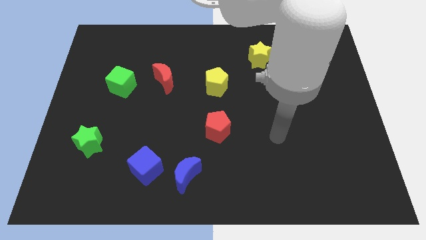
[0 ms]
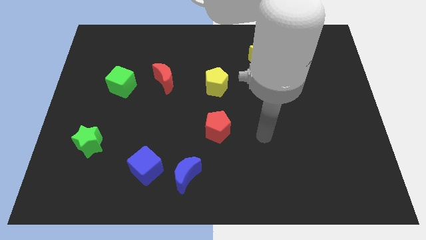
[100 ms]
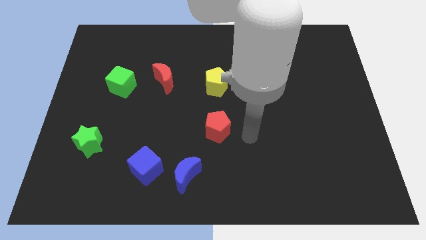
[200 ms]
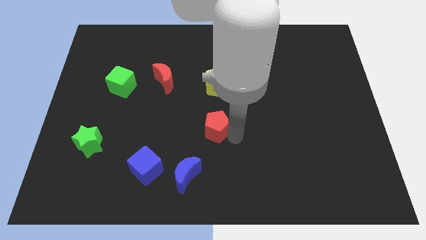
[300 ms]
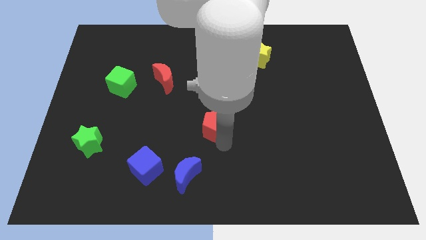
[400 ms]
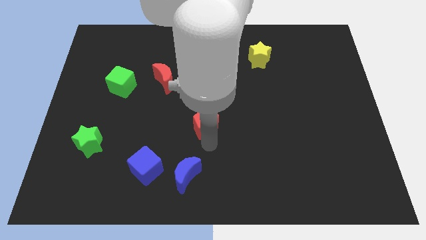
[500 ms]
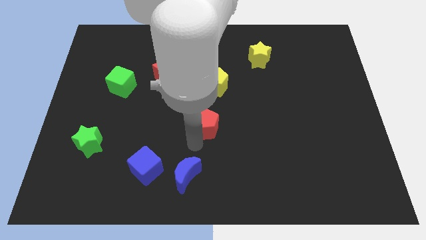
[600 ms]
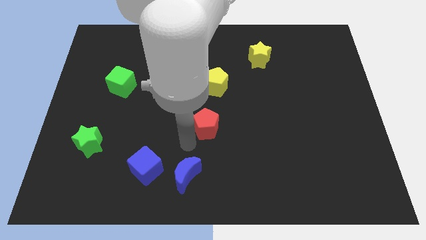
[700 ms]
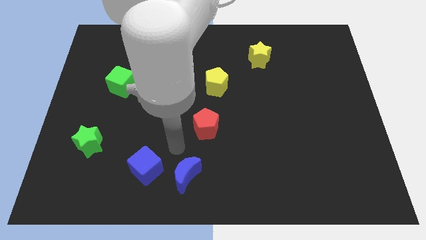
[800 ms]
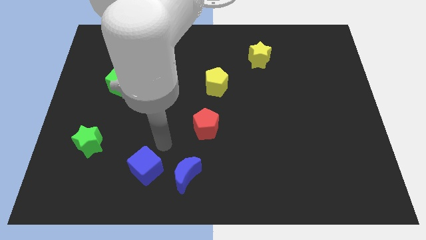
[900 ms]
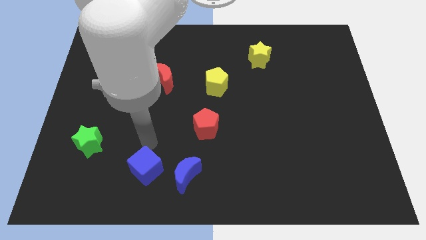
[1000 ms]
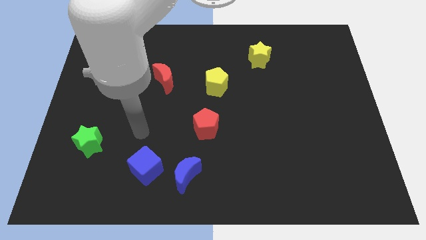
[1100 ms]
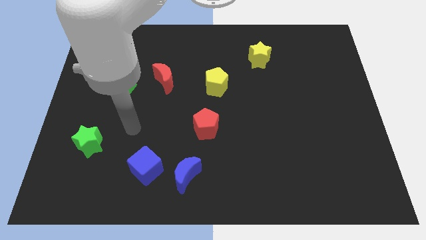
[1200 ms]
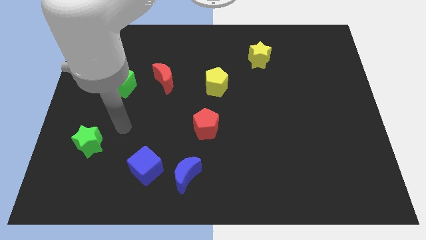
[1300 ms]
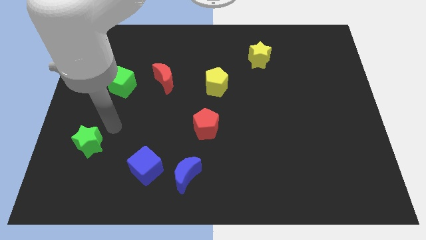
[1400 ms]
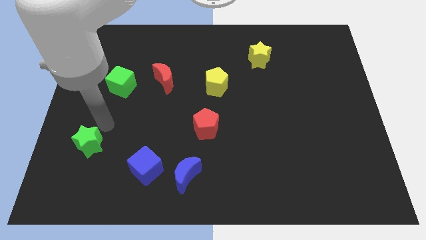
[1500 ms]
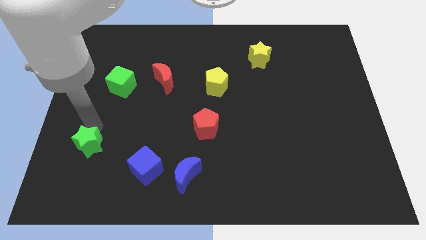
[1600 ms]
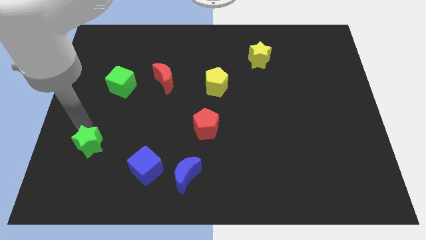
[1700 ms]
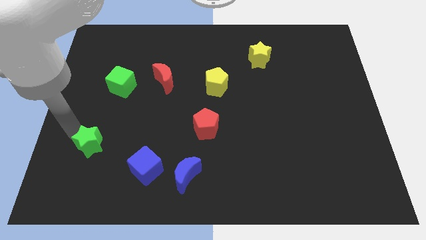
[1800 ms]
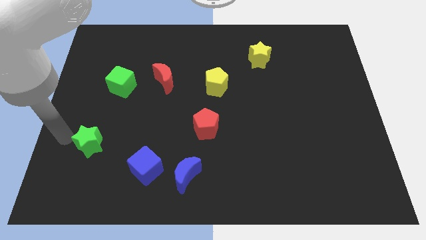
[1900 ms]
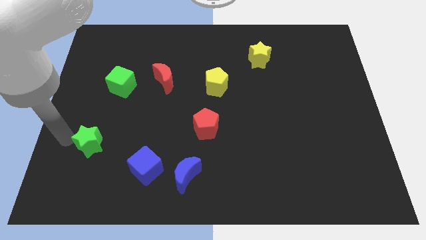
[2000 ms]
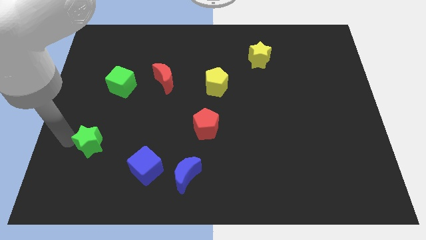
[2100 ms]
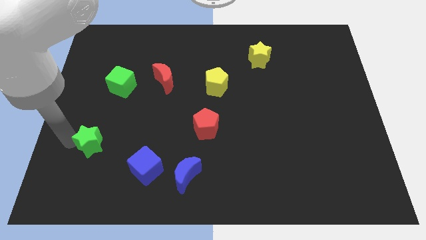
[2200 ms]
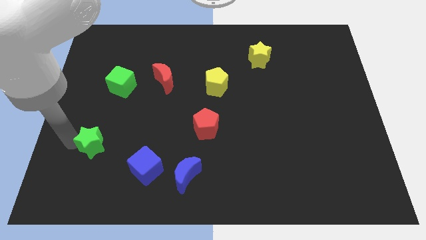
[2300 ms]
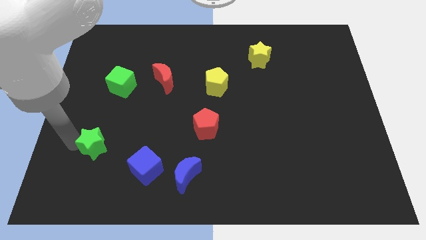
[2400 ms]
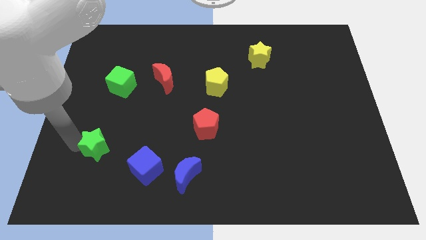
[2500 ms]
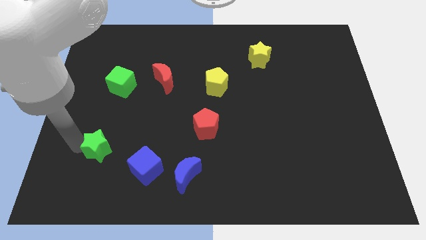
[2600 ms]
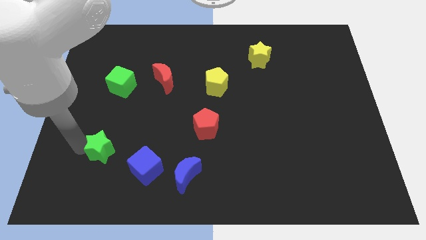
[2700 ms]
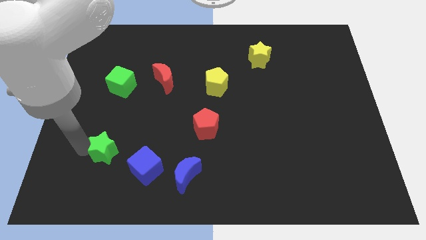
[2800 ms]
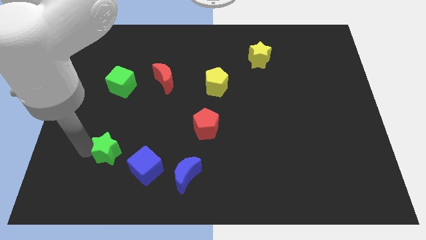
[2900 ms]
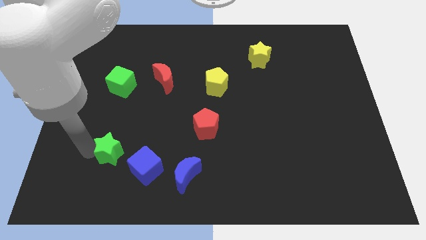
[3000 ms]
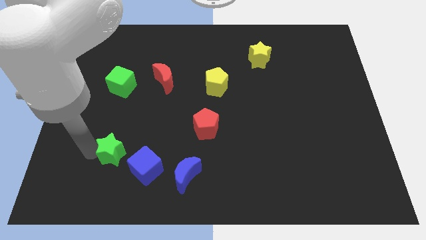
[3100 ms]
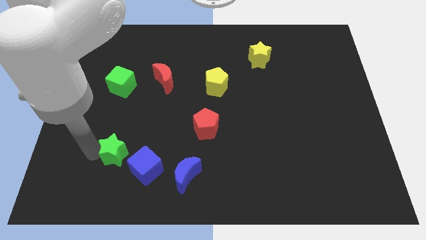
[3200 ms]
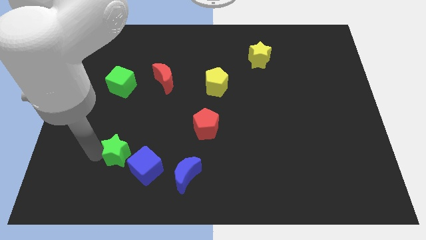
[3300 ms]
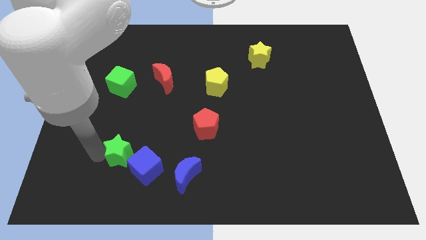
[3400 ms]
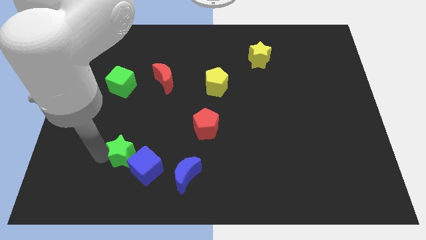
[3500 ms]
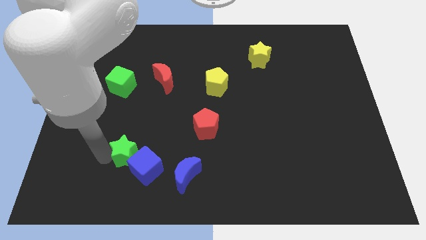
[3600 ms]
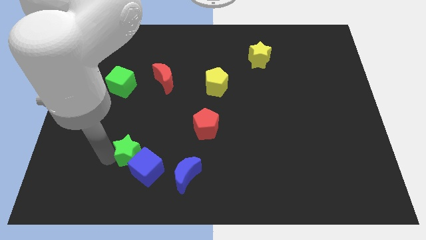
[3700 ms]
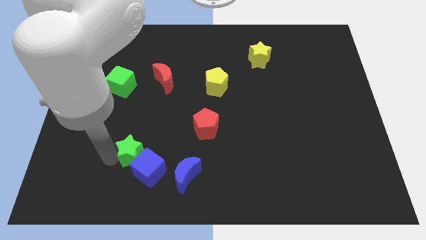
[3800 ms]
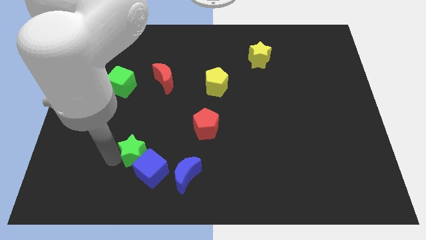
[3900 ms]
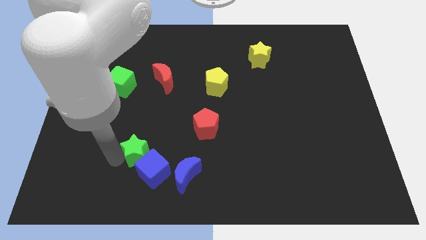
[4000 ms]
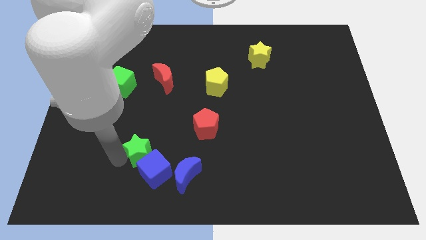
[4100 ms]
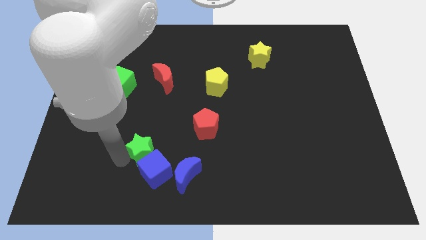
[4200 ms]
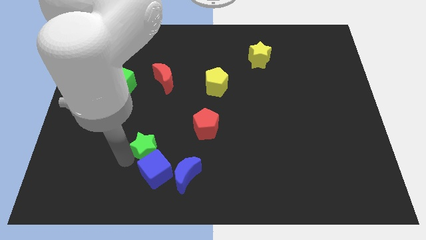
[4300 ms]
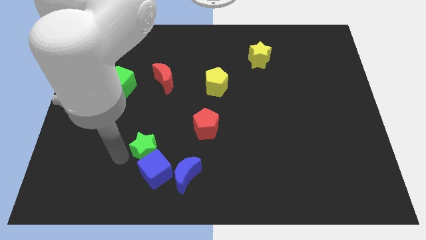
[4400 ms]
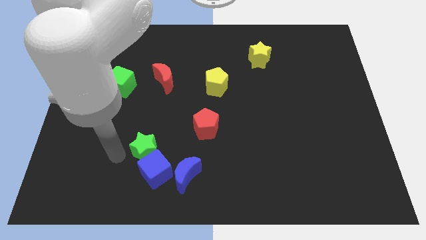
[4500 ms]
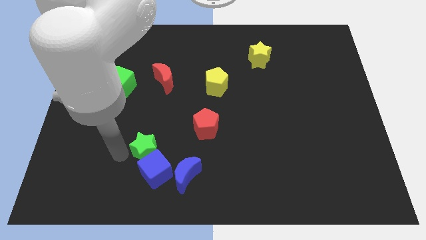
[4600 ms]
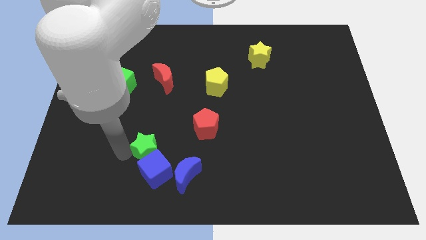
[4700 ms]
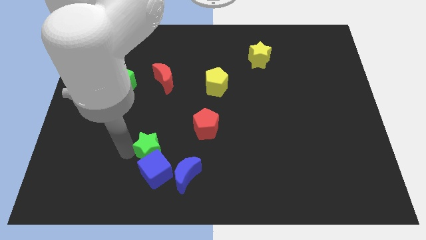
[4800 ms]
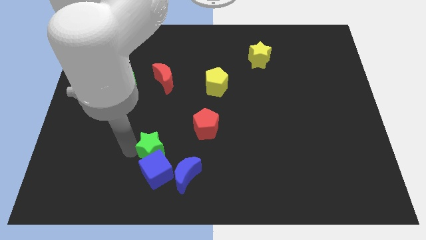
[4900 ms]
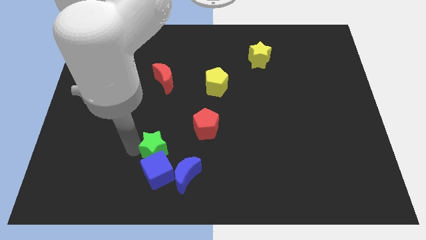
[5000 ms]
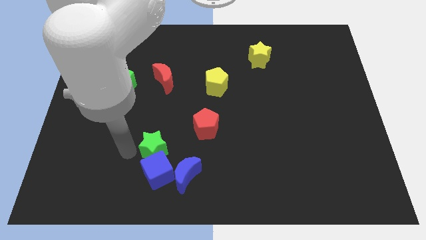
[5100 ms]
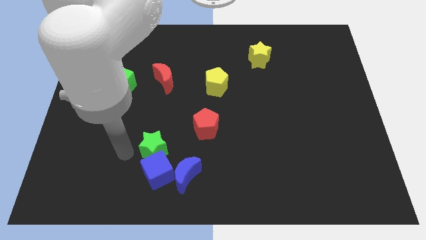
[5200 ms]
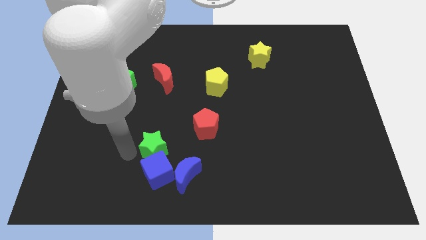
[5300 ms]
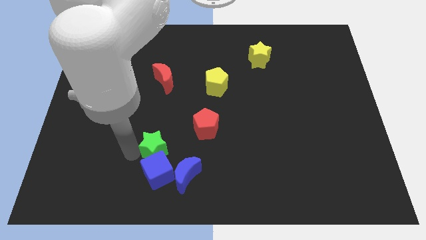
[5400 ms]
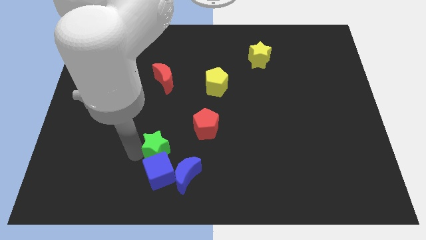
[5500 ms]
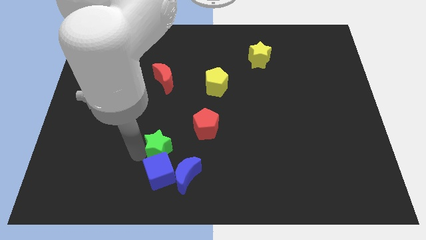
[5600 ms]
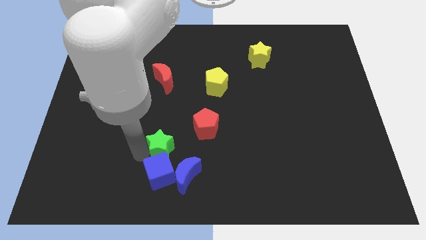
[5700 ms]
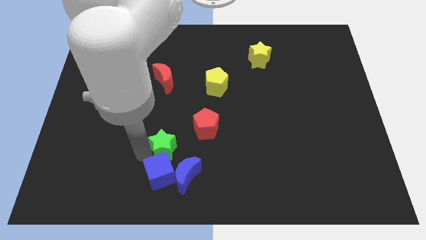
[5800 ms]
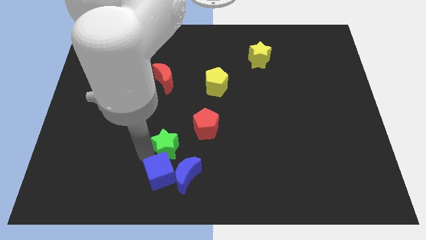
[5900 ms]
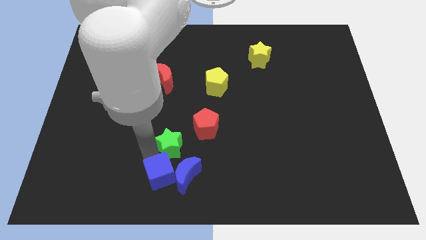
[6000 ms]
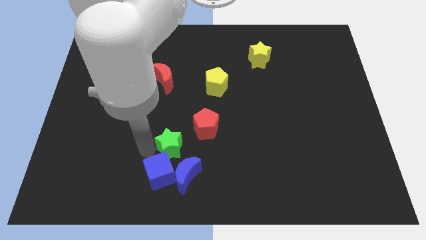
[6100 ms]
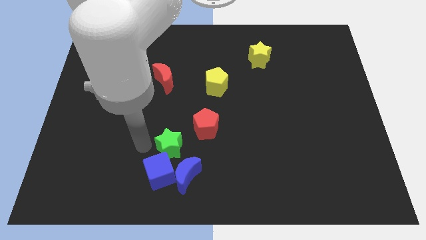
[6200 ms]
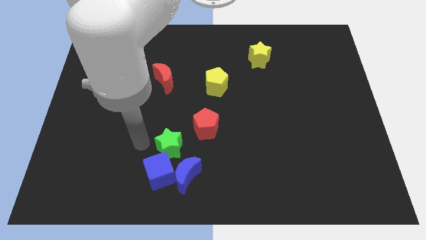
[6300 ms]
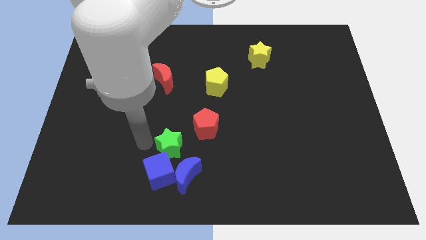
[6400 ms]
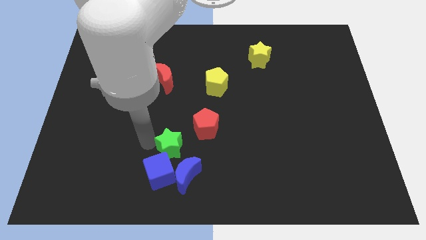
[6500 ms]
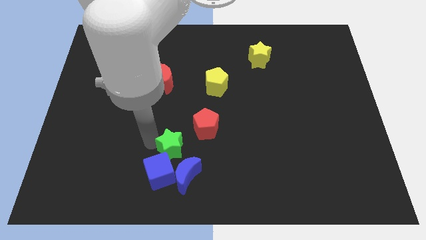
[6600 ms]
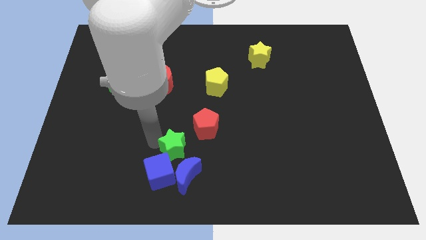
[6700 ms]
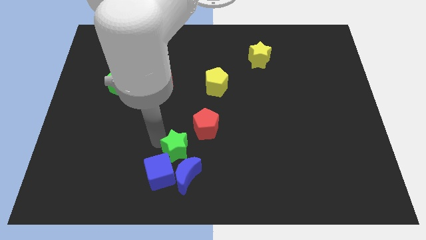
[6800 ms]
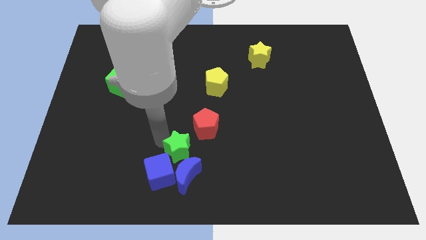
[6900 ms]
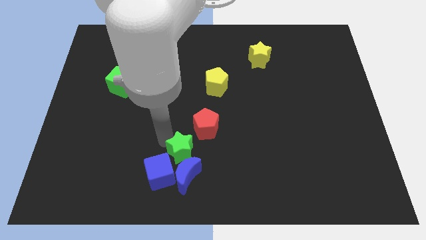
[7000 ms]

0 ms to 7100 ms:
move the green star right

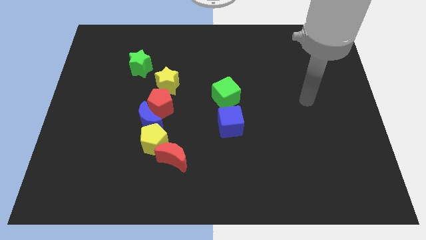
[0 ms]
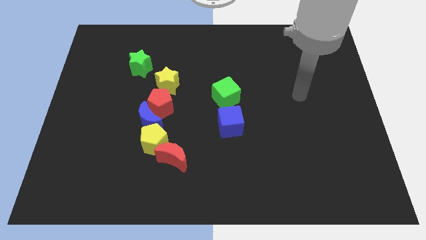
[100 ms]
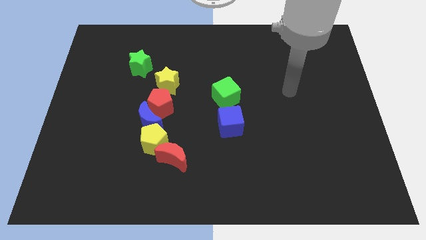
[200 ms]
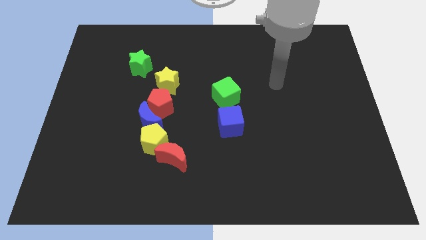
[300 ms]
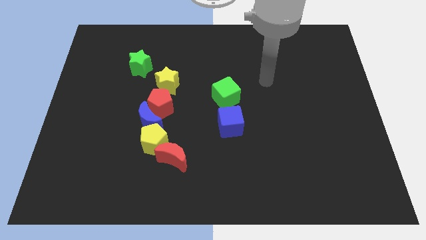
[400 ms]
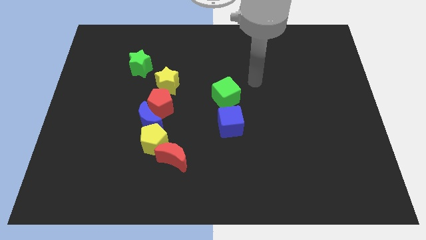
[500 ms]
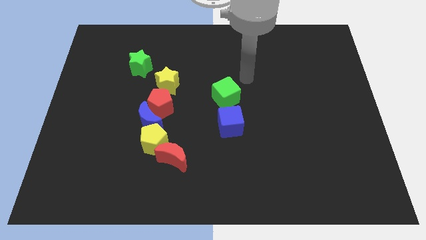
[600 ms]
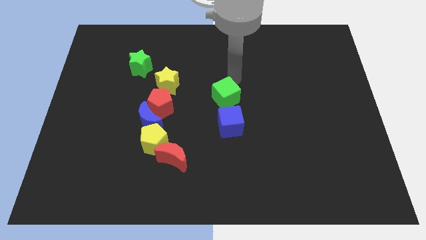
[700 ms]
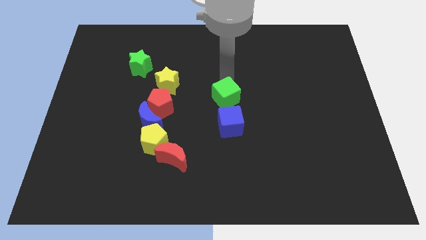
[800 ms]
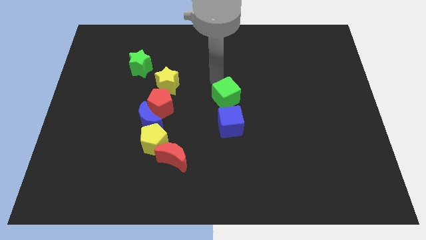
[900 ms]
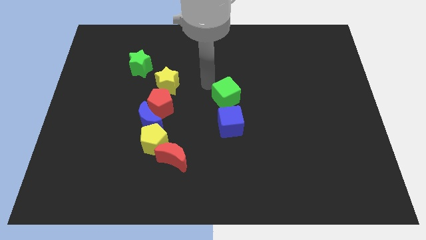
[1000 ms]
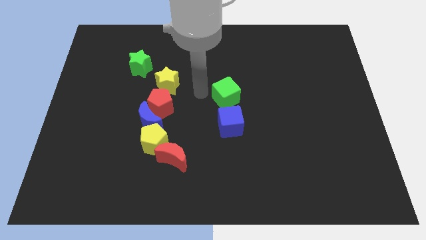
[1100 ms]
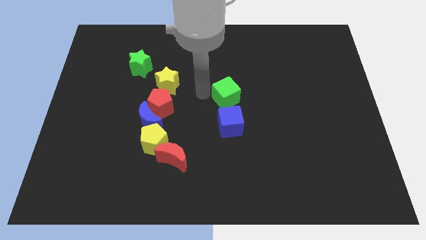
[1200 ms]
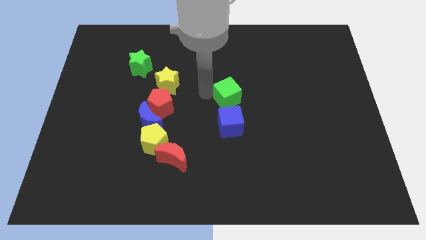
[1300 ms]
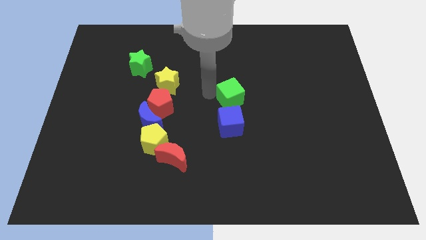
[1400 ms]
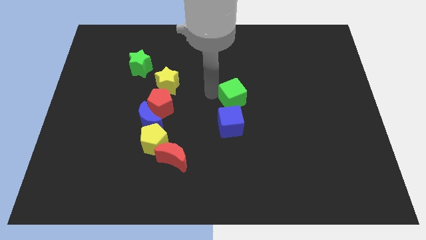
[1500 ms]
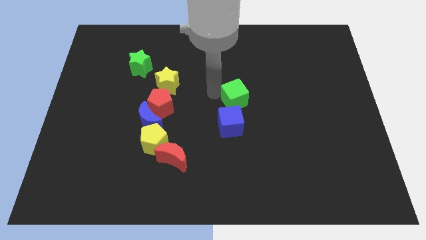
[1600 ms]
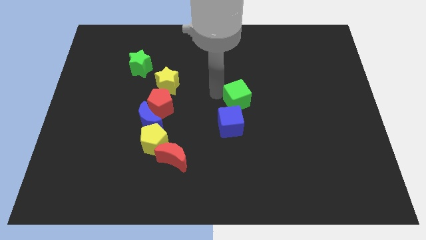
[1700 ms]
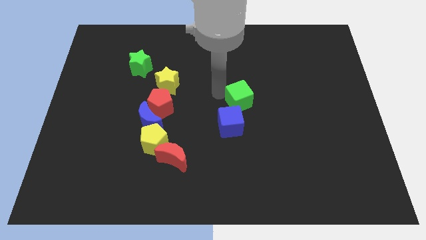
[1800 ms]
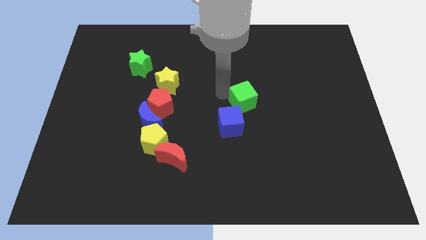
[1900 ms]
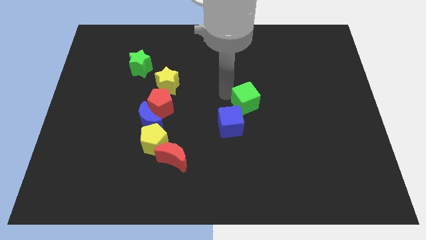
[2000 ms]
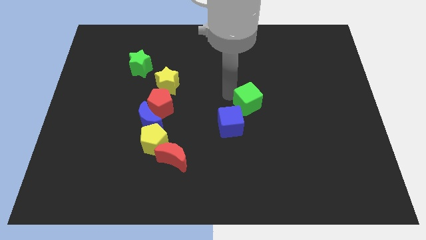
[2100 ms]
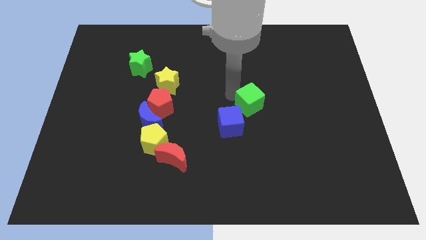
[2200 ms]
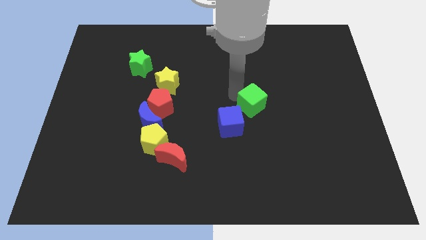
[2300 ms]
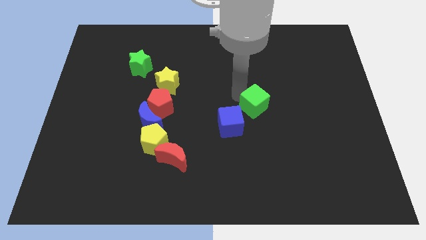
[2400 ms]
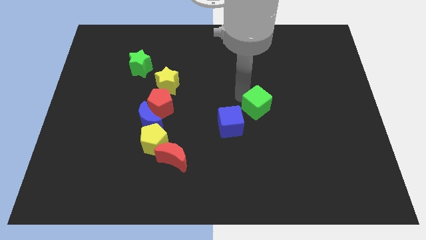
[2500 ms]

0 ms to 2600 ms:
slightly push the green cube right
